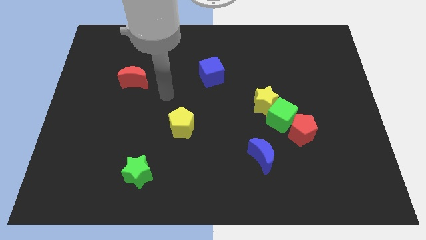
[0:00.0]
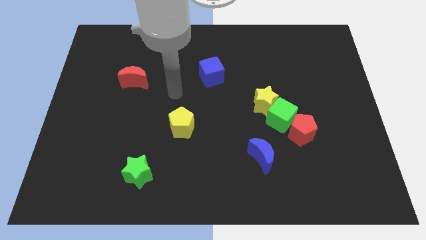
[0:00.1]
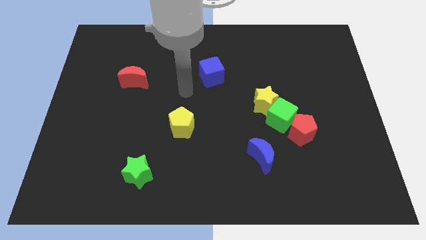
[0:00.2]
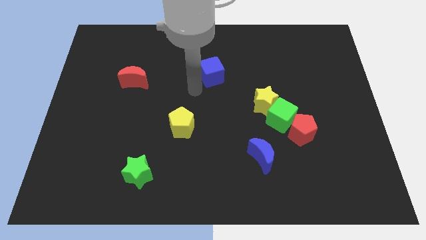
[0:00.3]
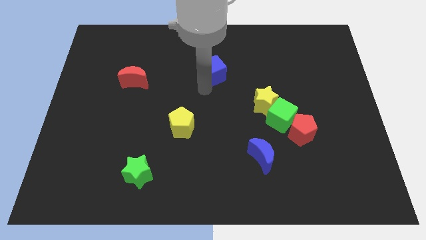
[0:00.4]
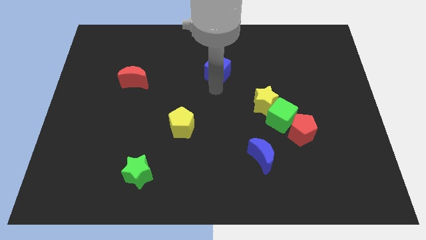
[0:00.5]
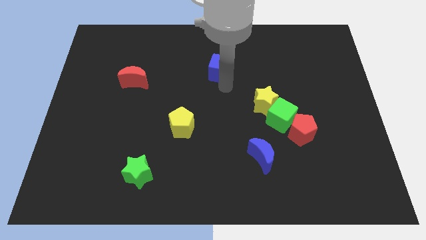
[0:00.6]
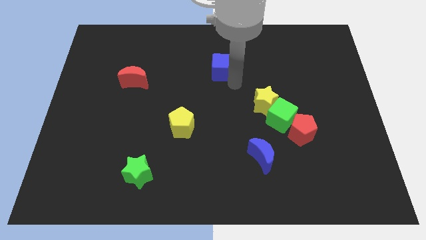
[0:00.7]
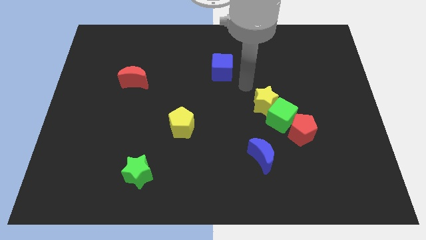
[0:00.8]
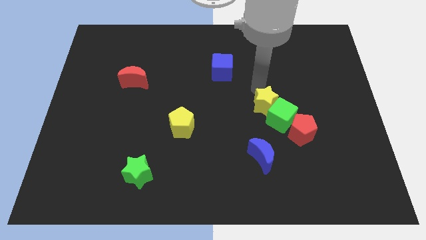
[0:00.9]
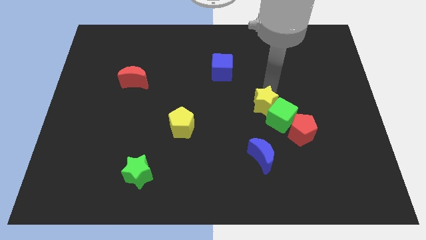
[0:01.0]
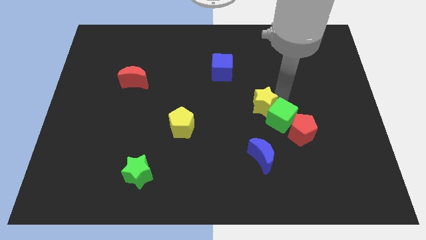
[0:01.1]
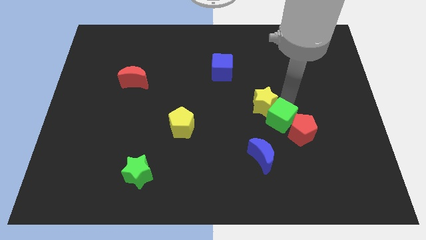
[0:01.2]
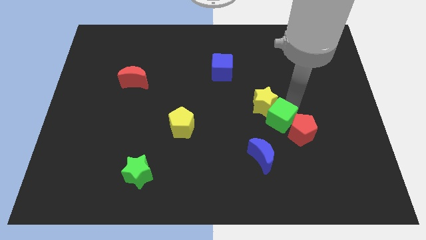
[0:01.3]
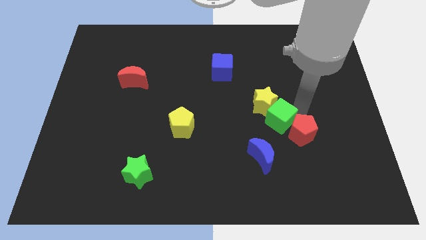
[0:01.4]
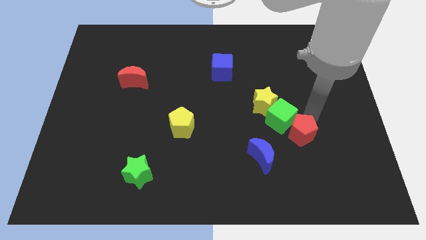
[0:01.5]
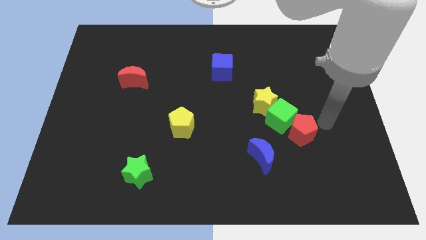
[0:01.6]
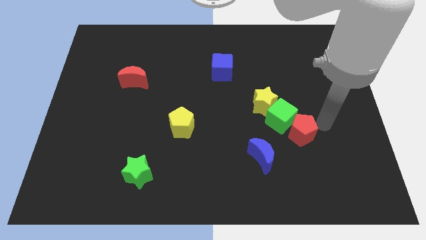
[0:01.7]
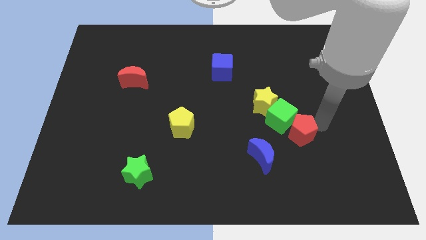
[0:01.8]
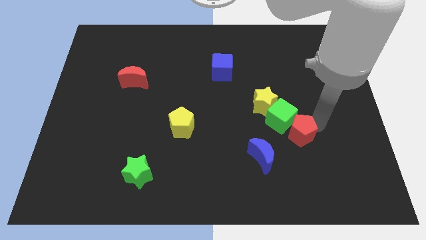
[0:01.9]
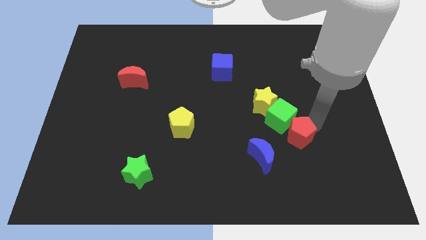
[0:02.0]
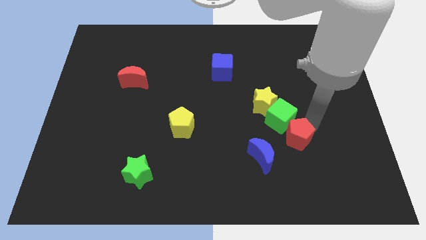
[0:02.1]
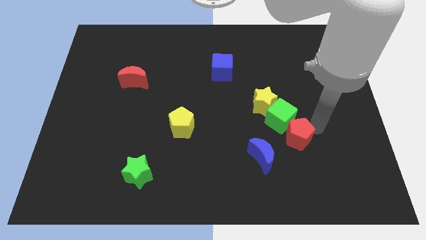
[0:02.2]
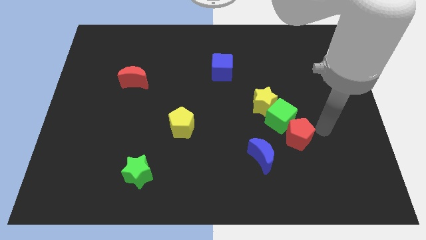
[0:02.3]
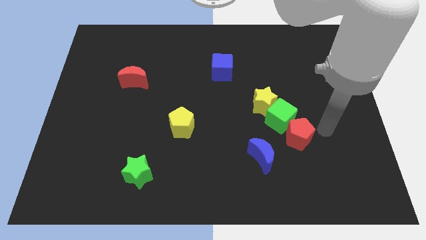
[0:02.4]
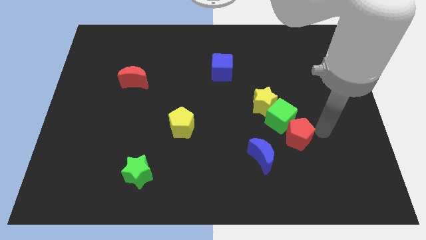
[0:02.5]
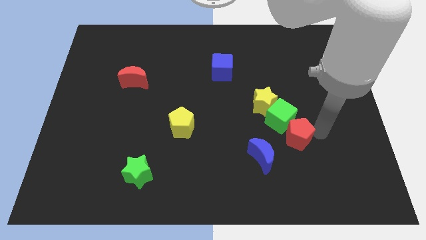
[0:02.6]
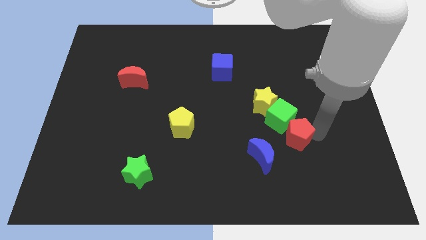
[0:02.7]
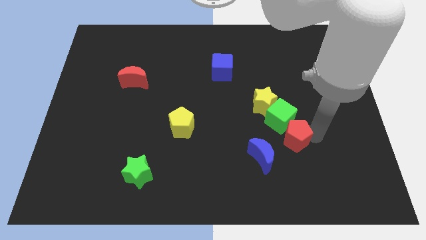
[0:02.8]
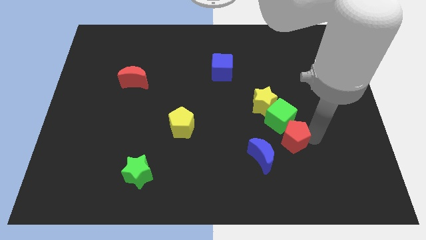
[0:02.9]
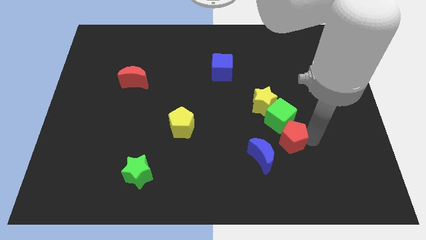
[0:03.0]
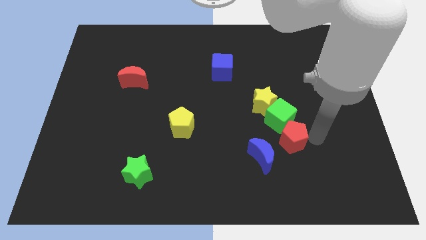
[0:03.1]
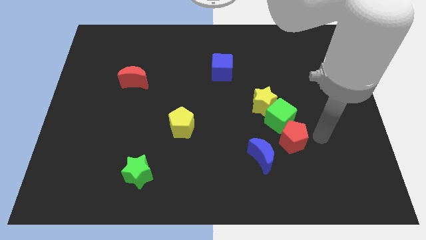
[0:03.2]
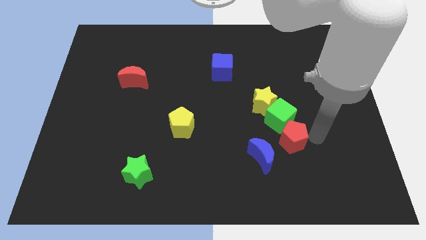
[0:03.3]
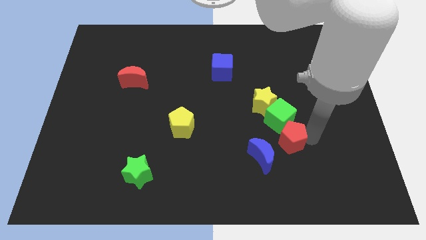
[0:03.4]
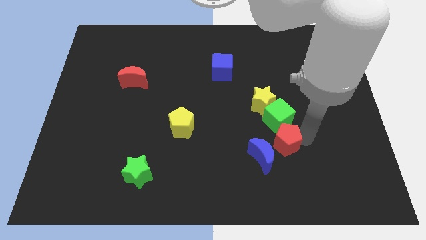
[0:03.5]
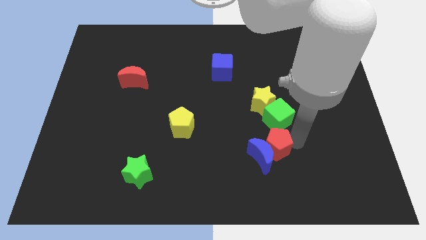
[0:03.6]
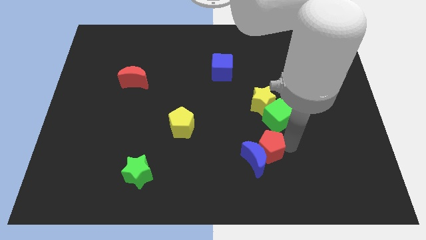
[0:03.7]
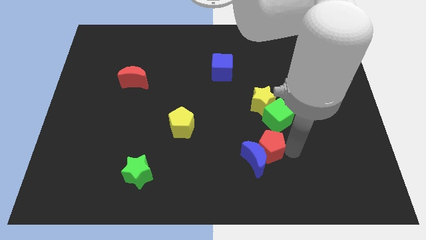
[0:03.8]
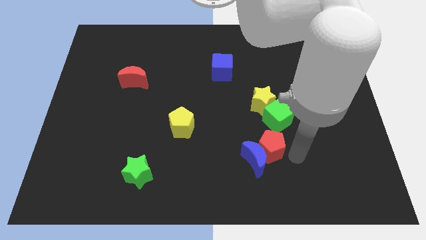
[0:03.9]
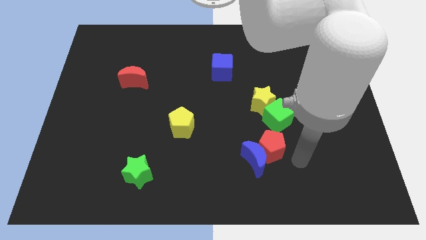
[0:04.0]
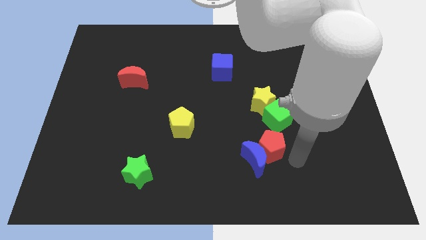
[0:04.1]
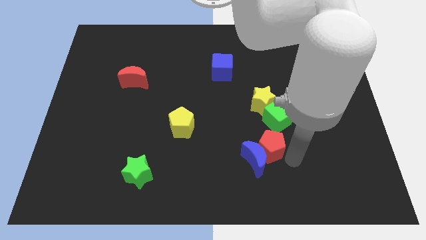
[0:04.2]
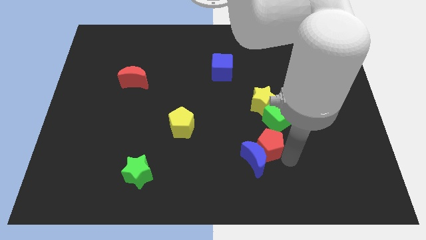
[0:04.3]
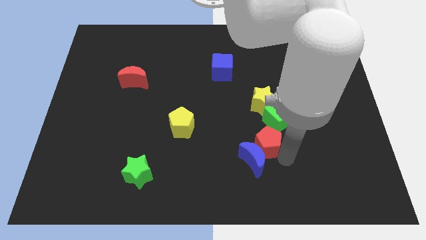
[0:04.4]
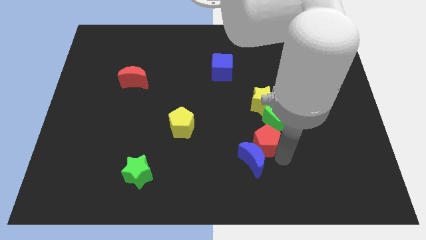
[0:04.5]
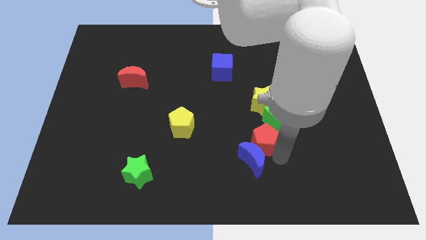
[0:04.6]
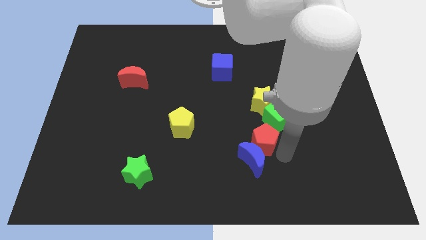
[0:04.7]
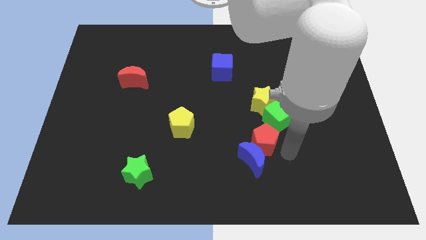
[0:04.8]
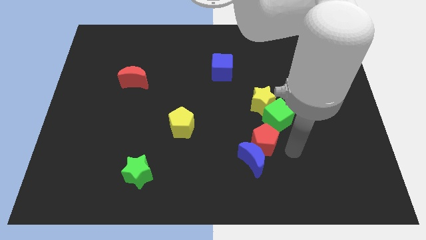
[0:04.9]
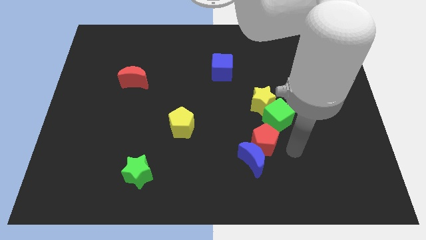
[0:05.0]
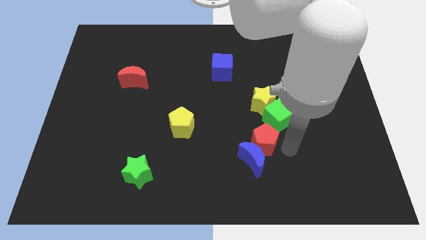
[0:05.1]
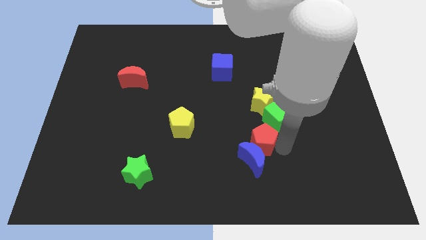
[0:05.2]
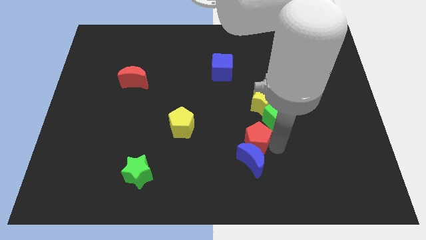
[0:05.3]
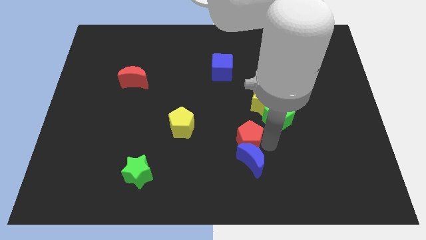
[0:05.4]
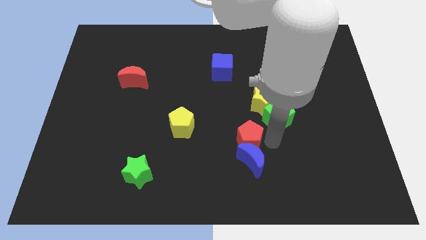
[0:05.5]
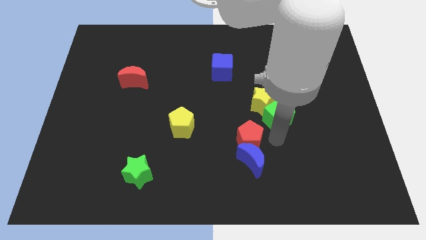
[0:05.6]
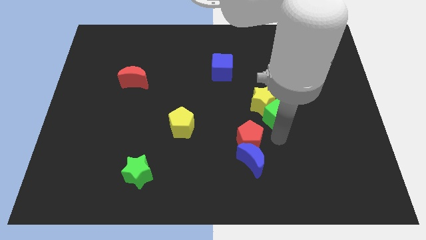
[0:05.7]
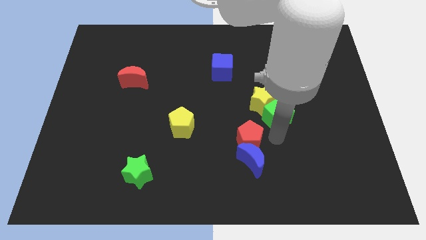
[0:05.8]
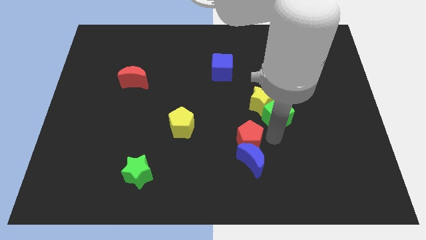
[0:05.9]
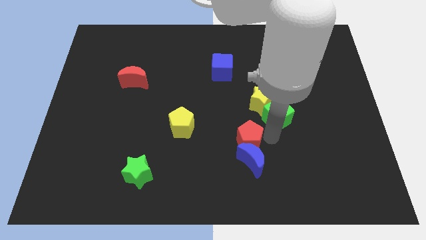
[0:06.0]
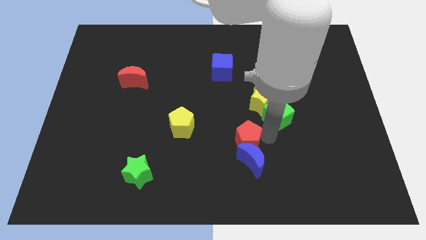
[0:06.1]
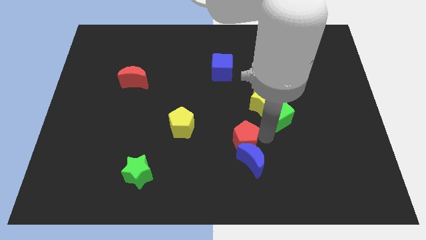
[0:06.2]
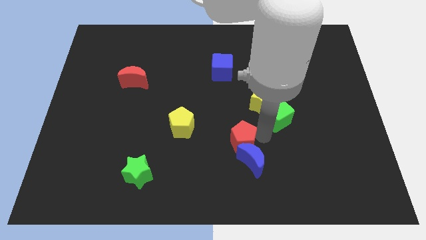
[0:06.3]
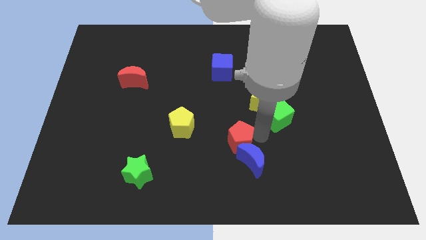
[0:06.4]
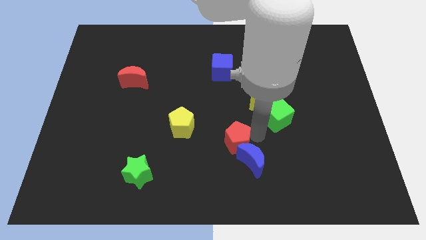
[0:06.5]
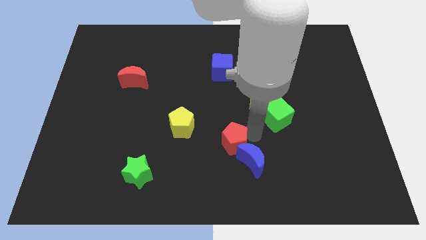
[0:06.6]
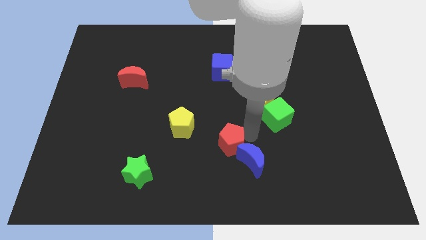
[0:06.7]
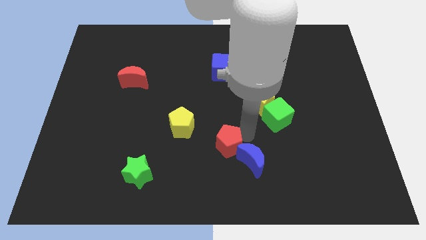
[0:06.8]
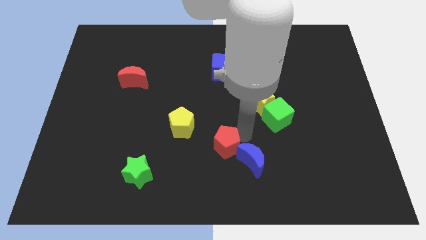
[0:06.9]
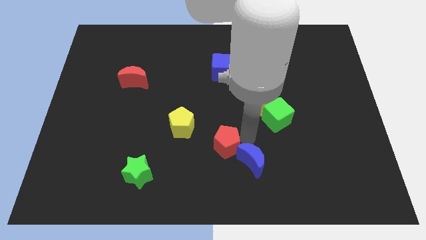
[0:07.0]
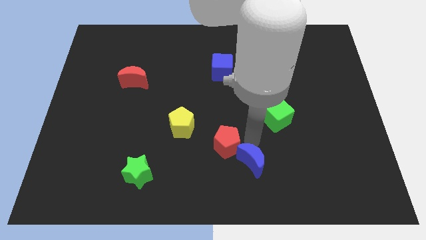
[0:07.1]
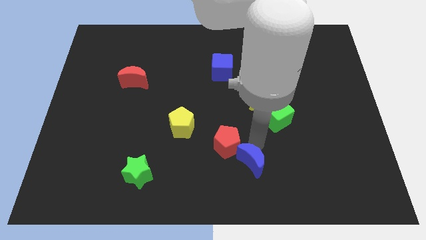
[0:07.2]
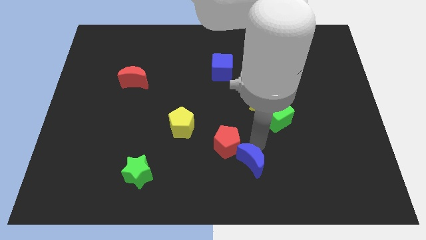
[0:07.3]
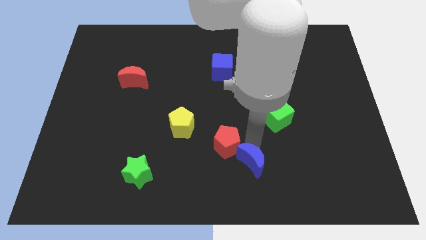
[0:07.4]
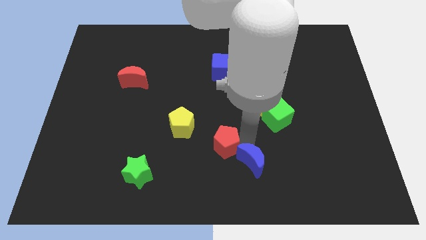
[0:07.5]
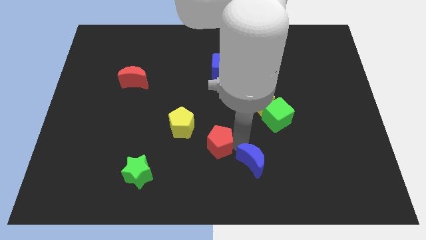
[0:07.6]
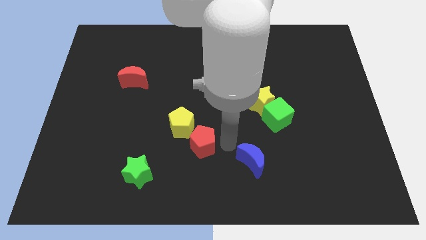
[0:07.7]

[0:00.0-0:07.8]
push the red pentagon left

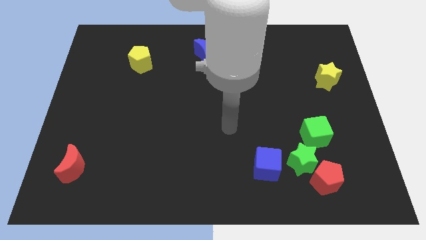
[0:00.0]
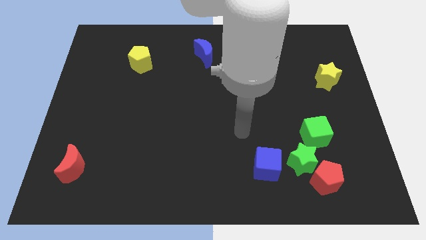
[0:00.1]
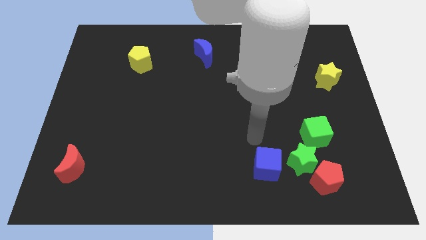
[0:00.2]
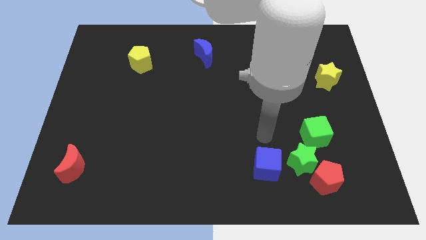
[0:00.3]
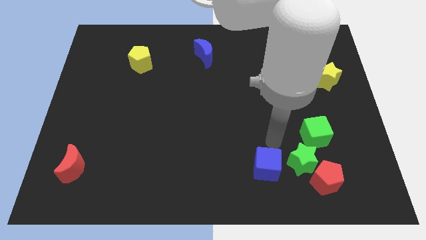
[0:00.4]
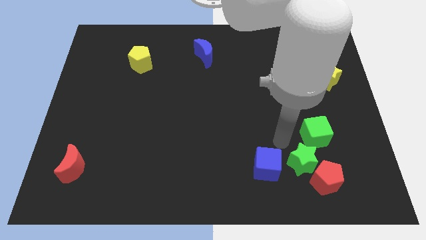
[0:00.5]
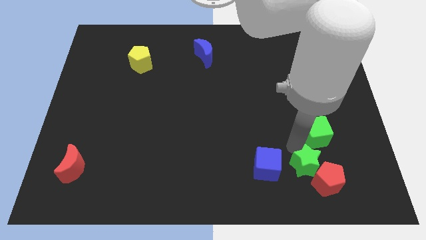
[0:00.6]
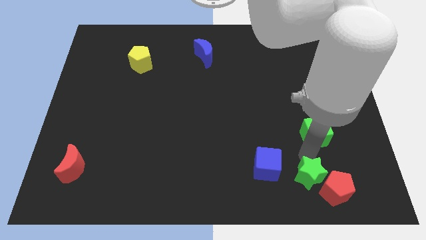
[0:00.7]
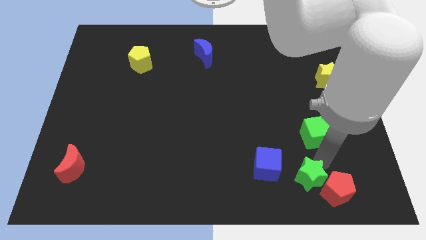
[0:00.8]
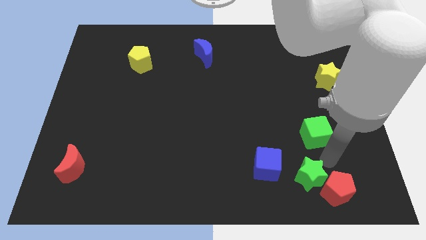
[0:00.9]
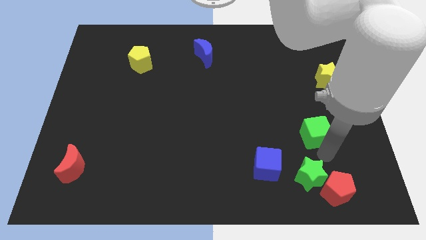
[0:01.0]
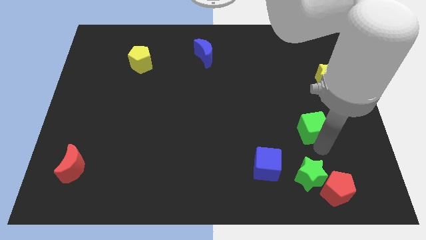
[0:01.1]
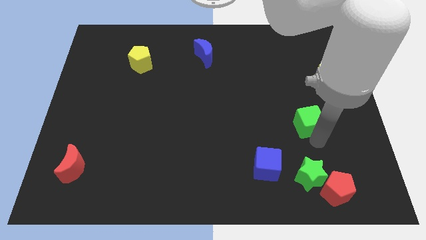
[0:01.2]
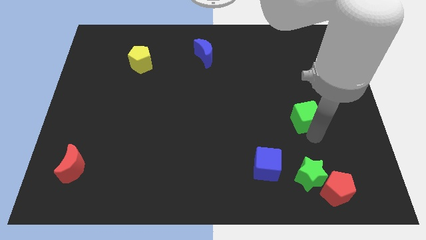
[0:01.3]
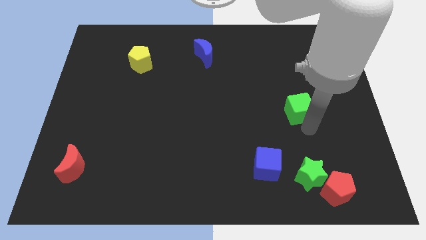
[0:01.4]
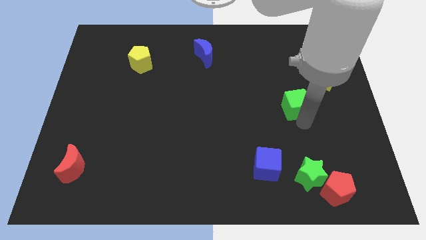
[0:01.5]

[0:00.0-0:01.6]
slightly push the green cube upwards
